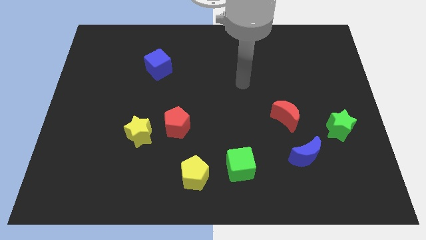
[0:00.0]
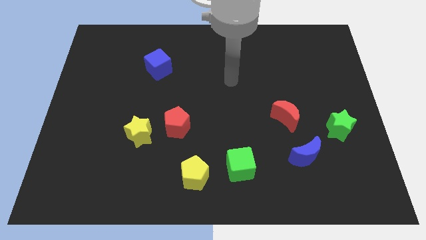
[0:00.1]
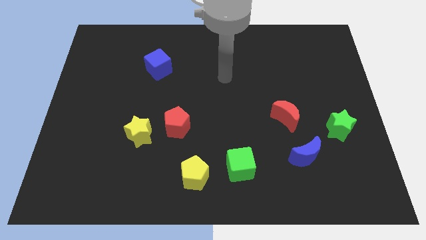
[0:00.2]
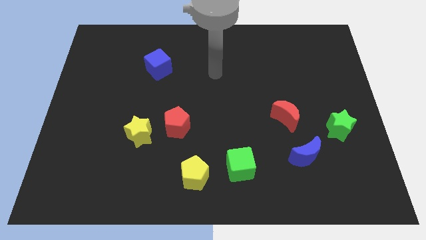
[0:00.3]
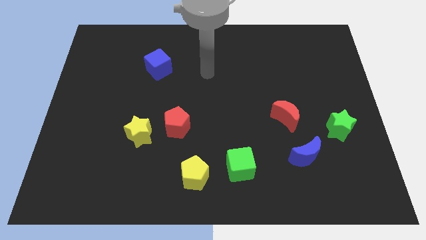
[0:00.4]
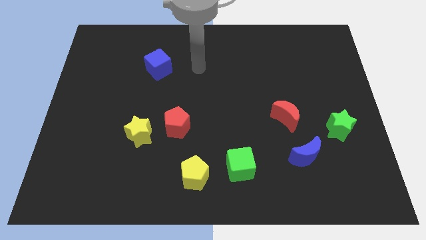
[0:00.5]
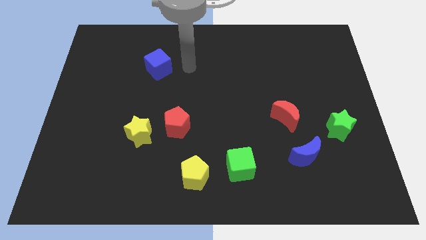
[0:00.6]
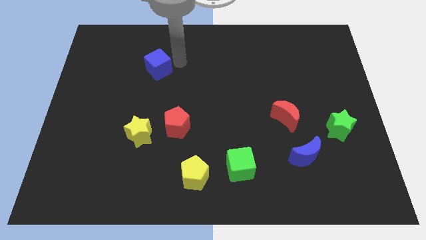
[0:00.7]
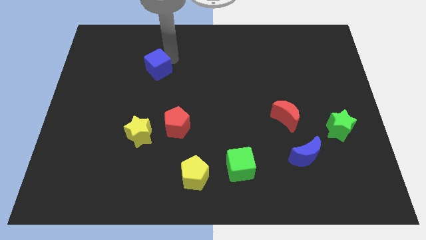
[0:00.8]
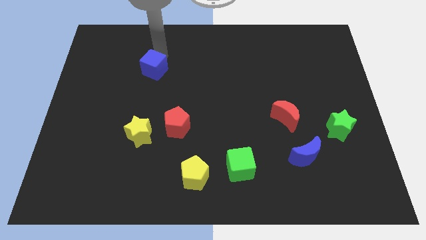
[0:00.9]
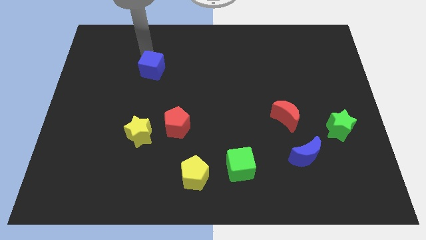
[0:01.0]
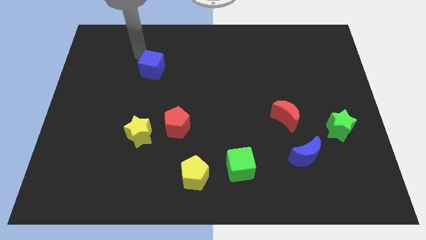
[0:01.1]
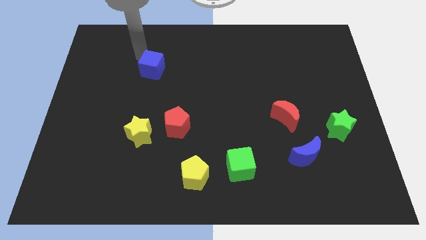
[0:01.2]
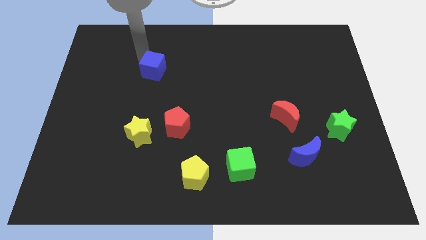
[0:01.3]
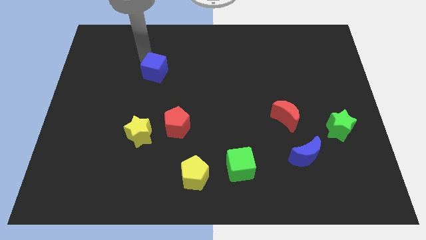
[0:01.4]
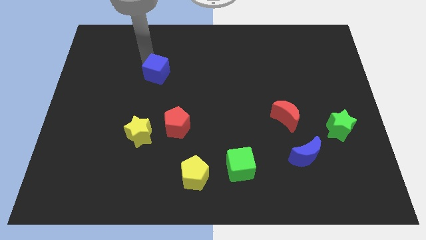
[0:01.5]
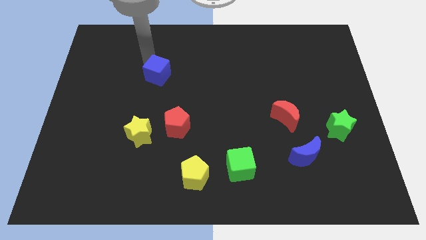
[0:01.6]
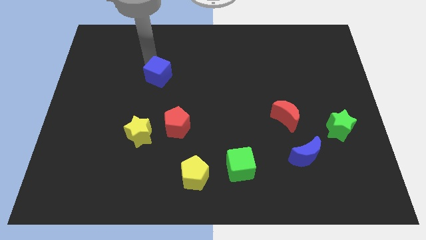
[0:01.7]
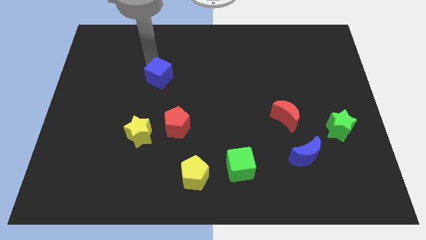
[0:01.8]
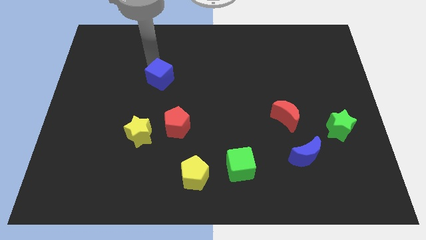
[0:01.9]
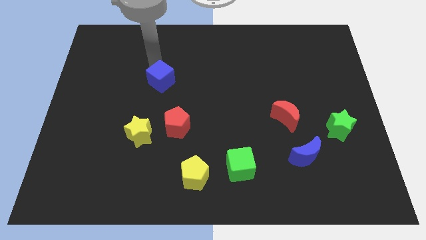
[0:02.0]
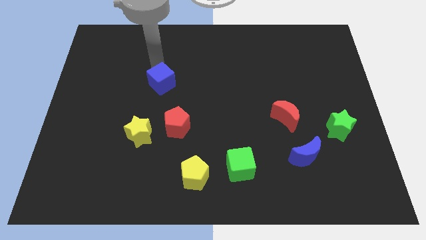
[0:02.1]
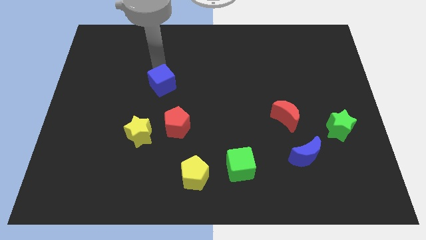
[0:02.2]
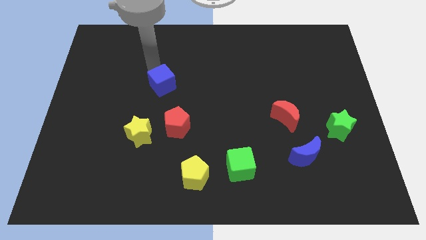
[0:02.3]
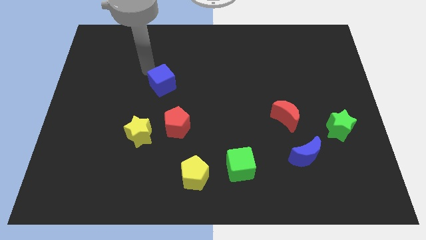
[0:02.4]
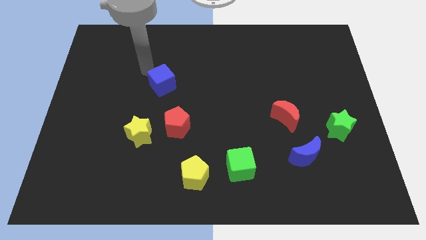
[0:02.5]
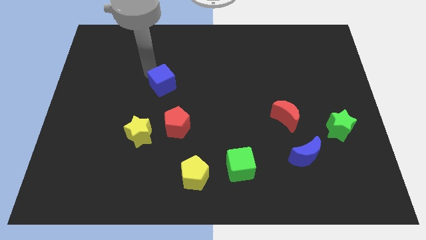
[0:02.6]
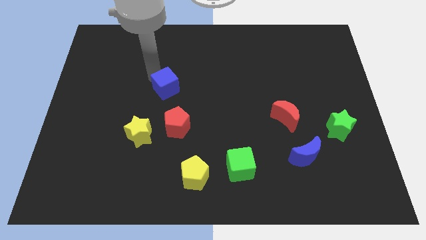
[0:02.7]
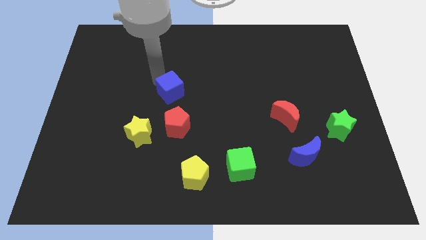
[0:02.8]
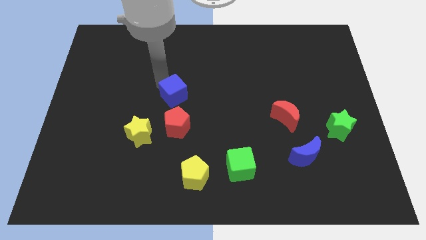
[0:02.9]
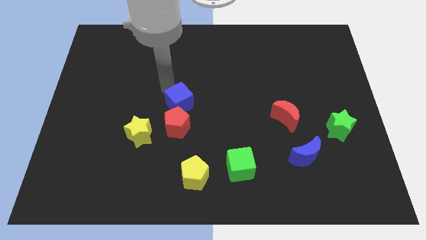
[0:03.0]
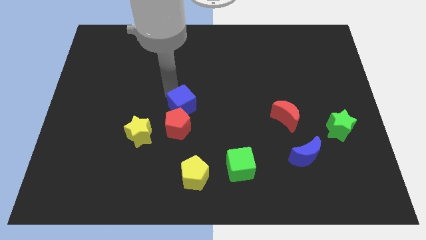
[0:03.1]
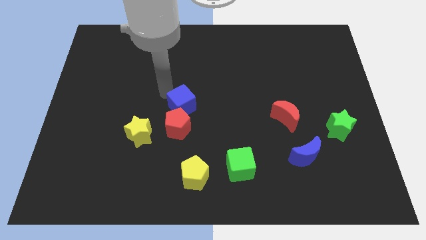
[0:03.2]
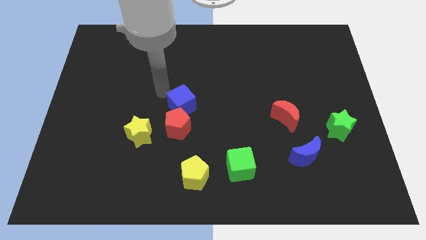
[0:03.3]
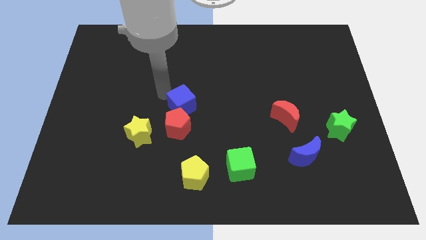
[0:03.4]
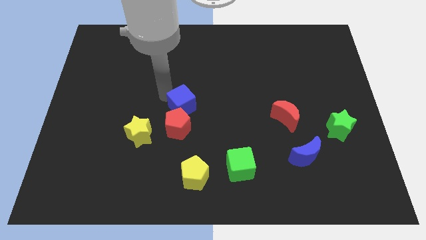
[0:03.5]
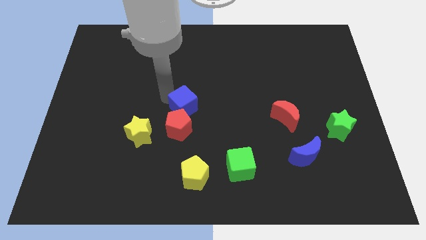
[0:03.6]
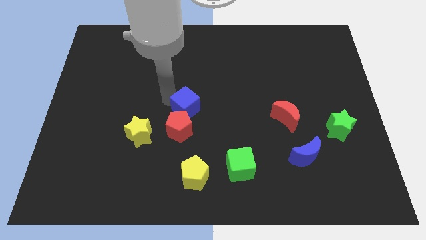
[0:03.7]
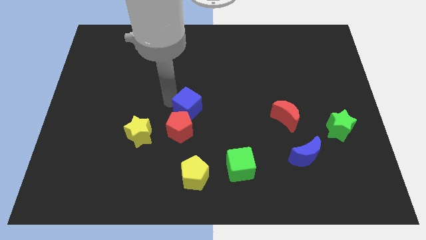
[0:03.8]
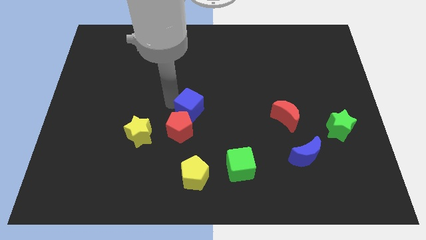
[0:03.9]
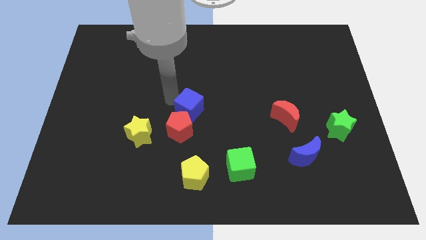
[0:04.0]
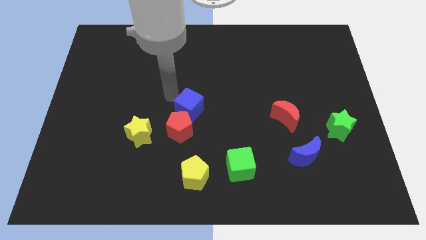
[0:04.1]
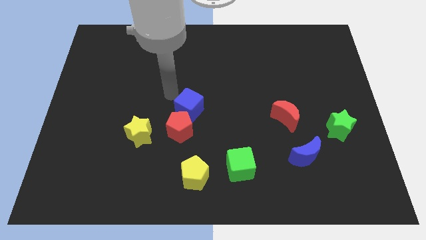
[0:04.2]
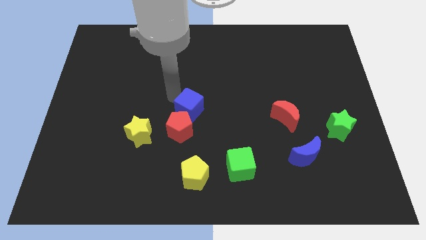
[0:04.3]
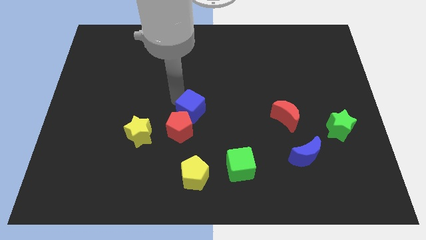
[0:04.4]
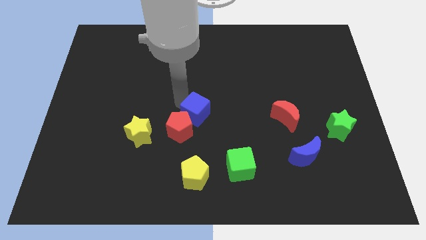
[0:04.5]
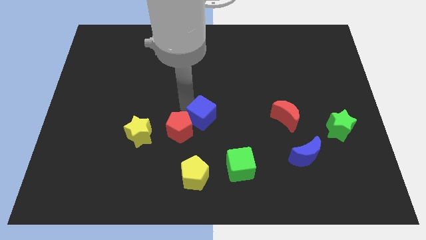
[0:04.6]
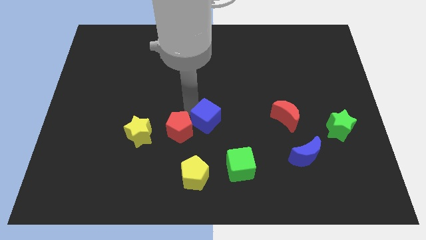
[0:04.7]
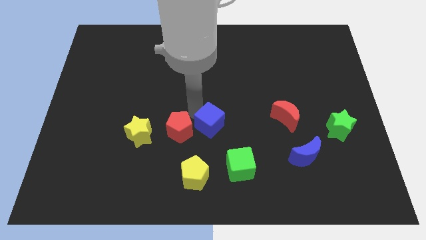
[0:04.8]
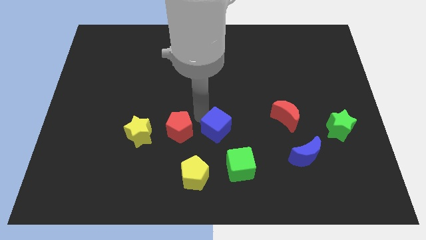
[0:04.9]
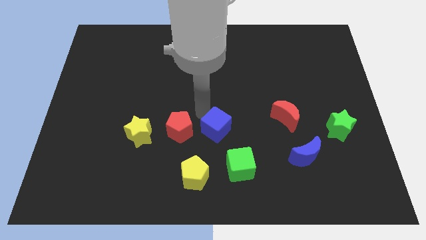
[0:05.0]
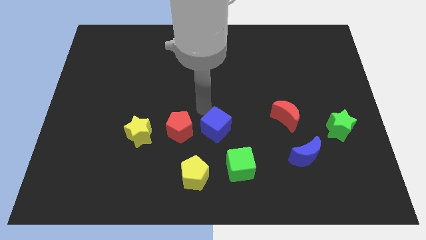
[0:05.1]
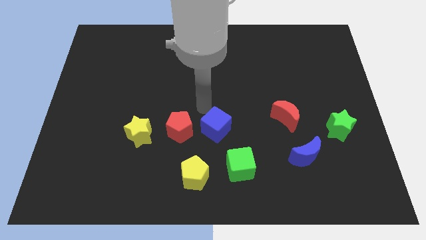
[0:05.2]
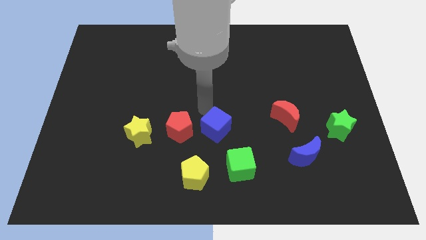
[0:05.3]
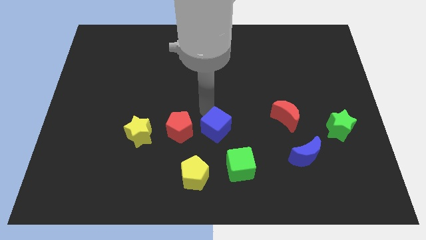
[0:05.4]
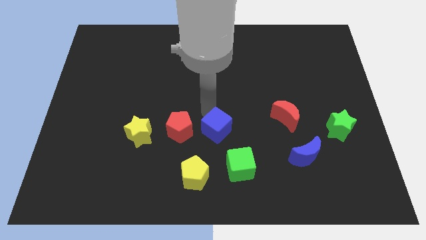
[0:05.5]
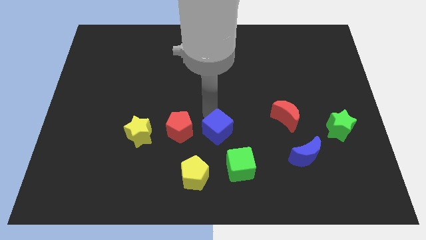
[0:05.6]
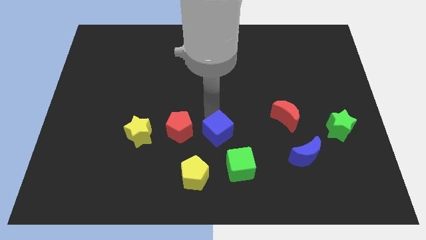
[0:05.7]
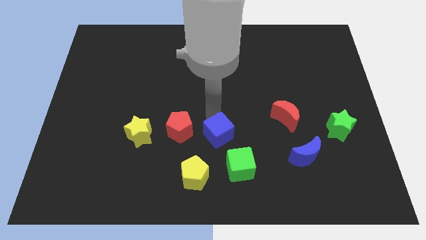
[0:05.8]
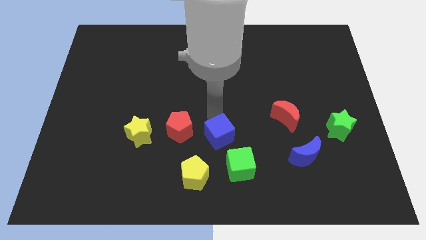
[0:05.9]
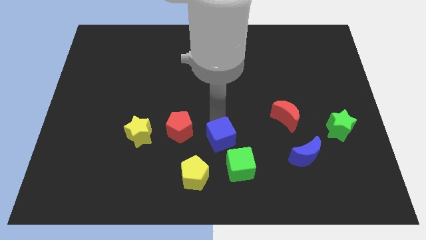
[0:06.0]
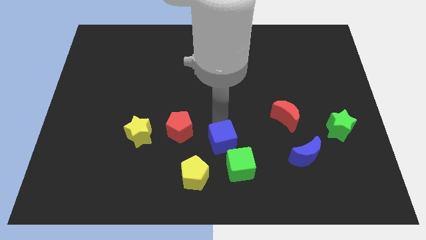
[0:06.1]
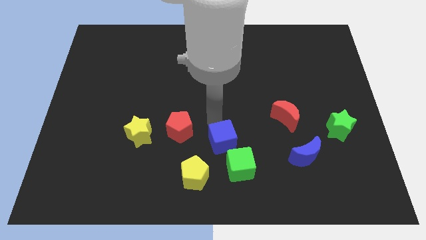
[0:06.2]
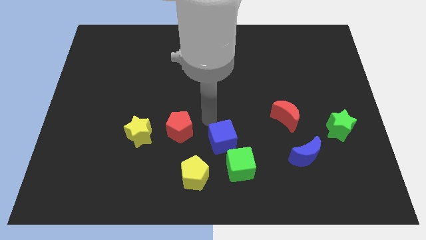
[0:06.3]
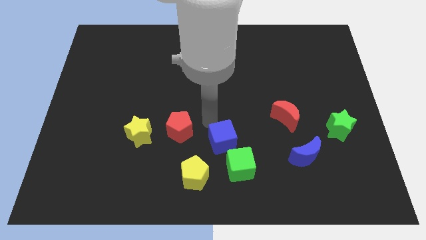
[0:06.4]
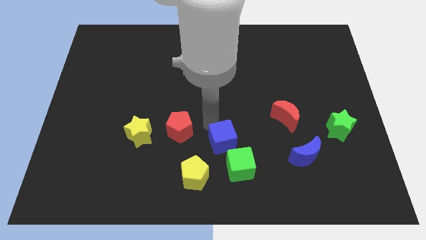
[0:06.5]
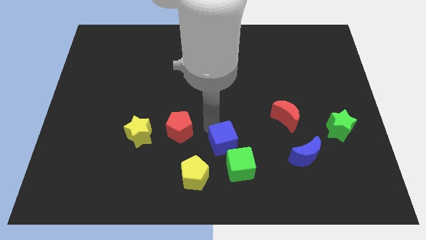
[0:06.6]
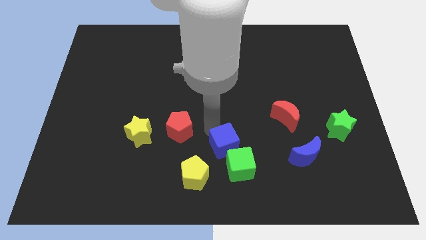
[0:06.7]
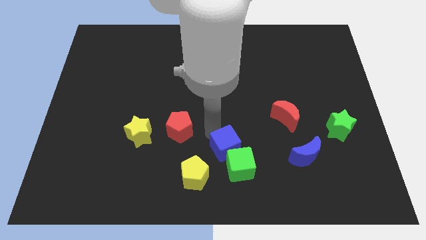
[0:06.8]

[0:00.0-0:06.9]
slide the blue cube to the green cube

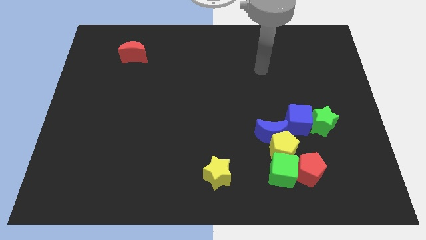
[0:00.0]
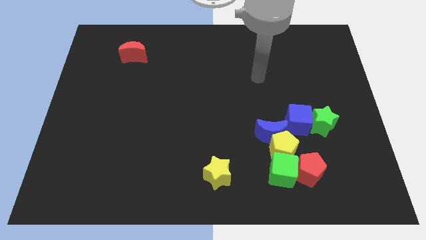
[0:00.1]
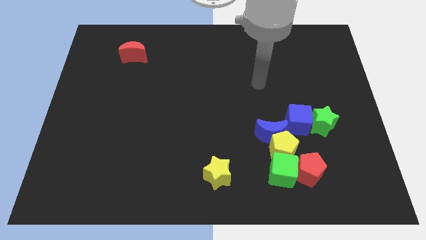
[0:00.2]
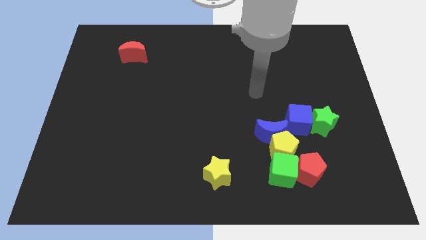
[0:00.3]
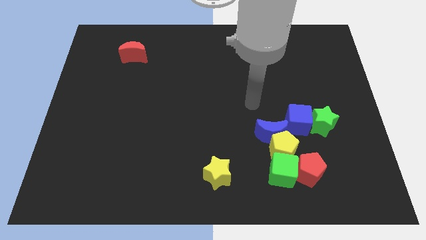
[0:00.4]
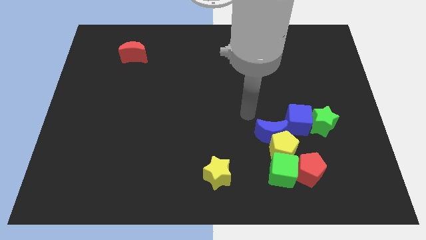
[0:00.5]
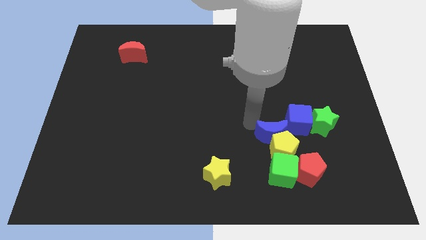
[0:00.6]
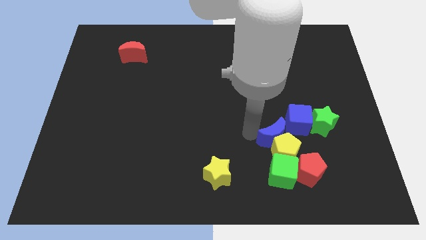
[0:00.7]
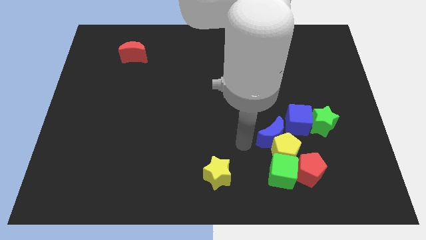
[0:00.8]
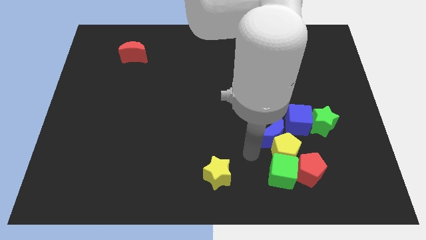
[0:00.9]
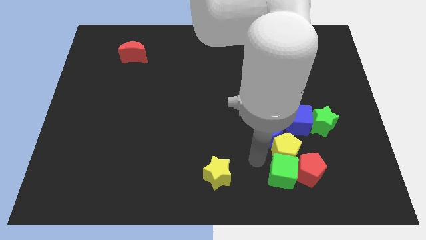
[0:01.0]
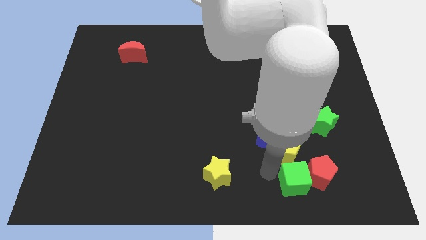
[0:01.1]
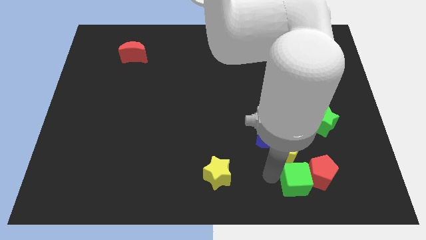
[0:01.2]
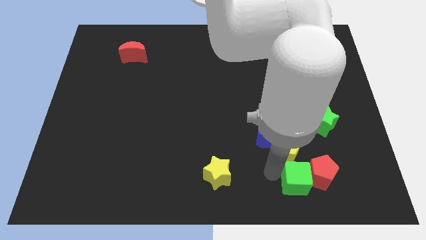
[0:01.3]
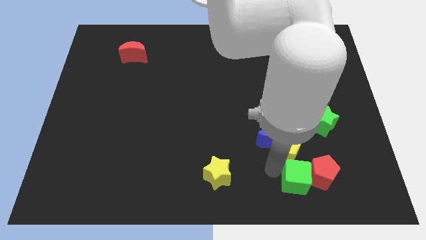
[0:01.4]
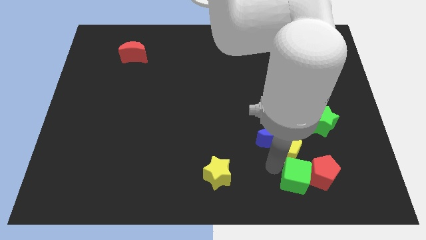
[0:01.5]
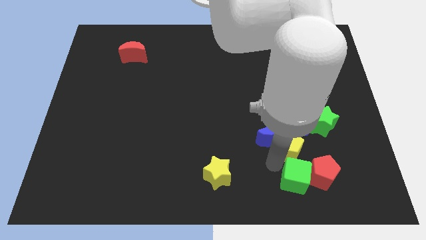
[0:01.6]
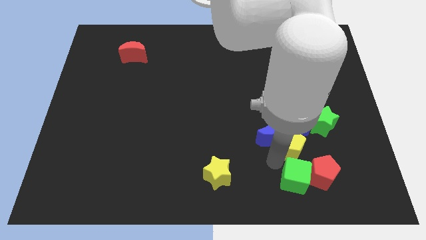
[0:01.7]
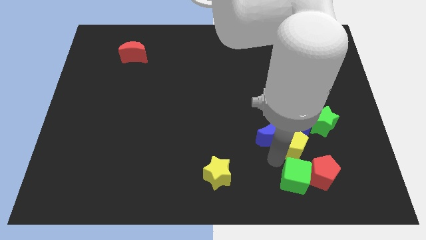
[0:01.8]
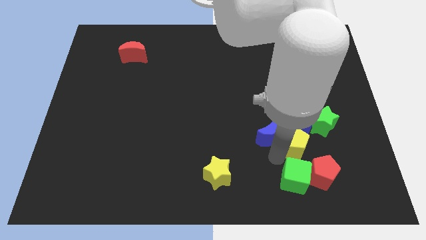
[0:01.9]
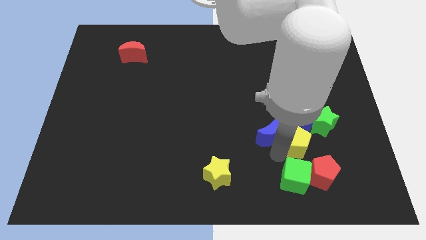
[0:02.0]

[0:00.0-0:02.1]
move the yellow pentagon close to the blue cube
